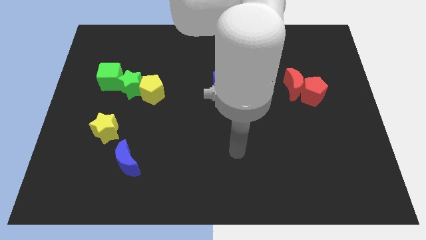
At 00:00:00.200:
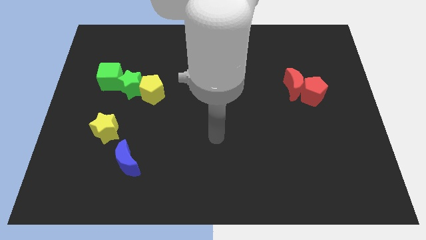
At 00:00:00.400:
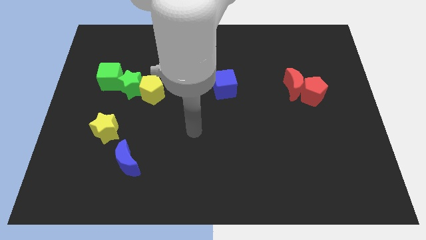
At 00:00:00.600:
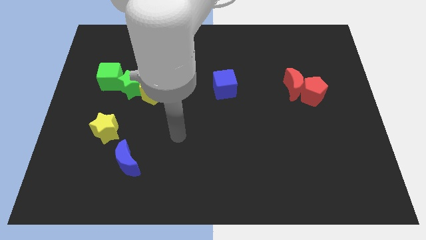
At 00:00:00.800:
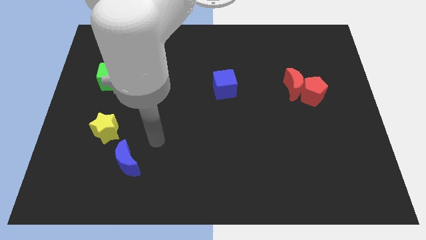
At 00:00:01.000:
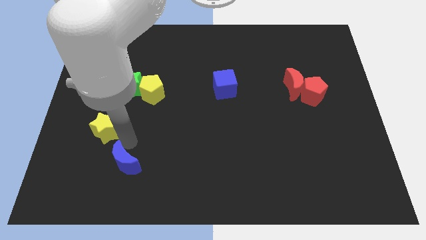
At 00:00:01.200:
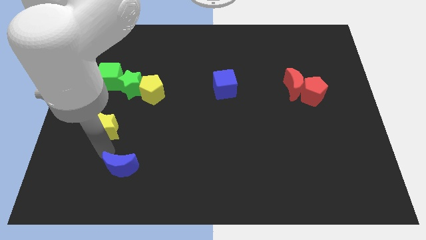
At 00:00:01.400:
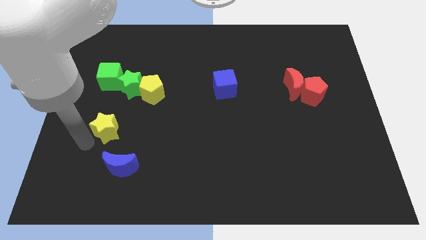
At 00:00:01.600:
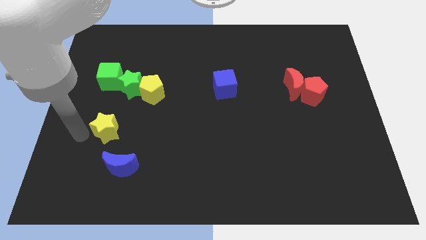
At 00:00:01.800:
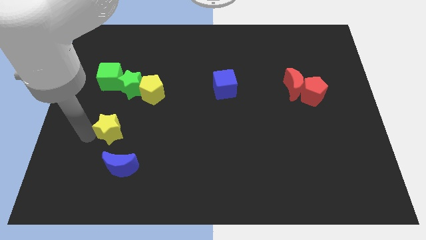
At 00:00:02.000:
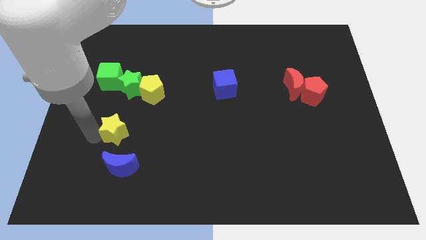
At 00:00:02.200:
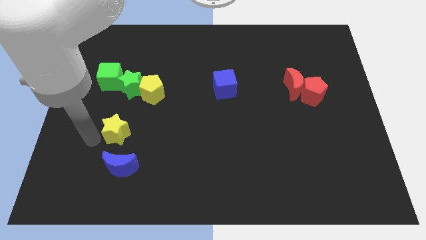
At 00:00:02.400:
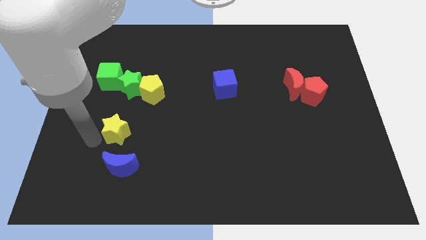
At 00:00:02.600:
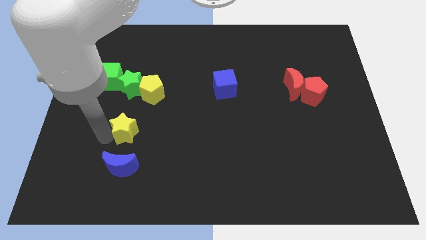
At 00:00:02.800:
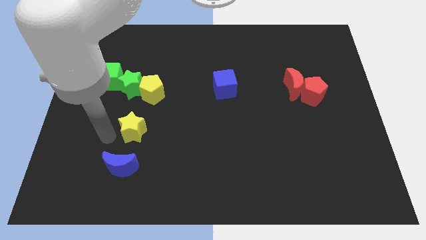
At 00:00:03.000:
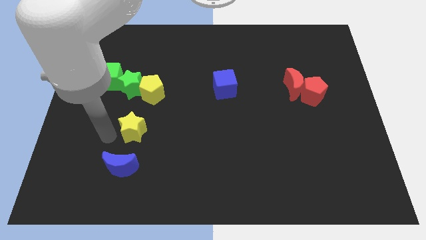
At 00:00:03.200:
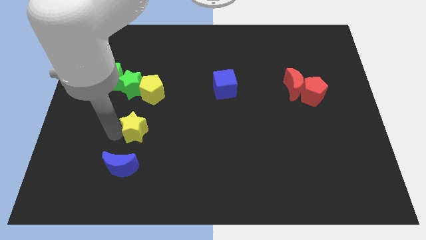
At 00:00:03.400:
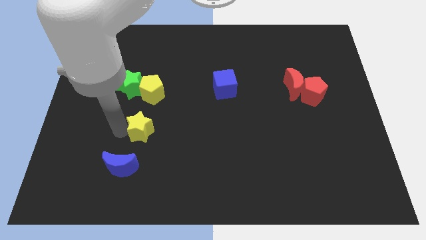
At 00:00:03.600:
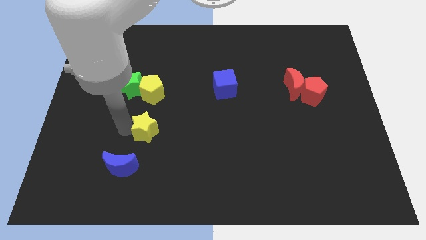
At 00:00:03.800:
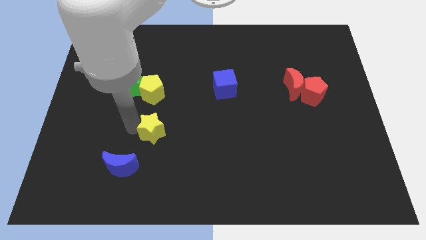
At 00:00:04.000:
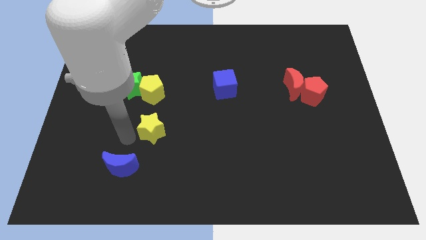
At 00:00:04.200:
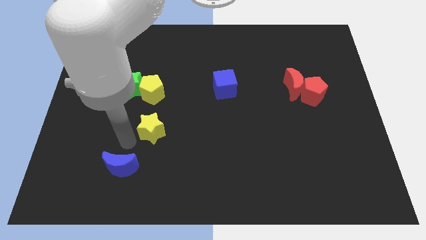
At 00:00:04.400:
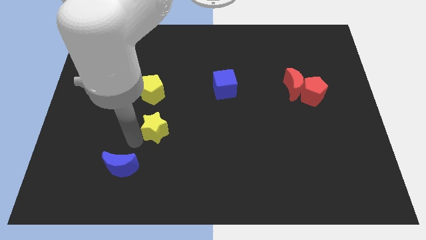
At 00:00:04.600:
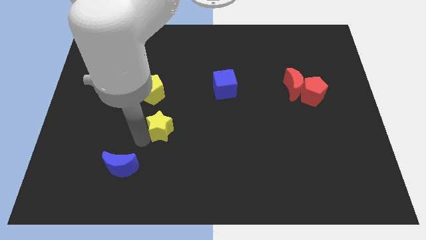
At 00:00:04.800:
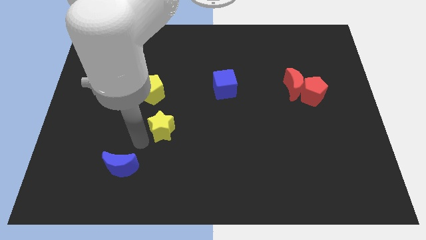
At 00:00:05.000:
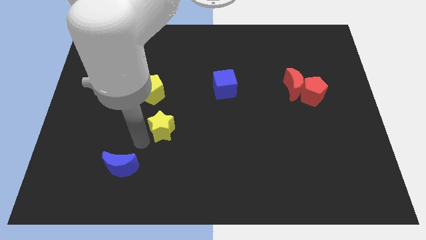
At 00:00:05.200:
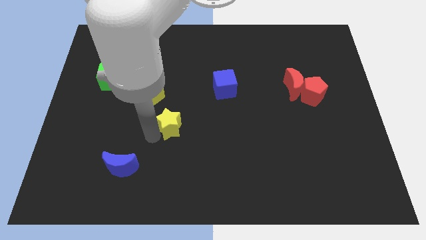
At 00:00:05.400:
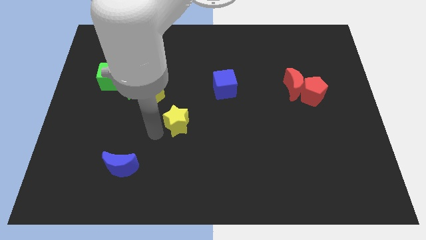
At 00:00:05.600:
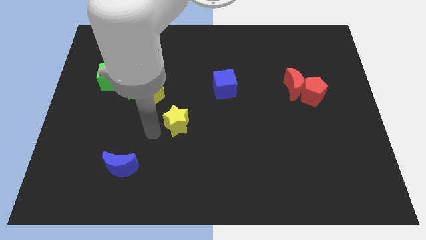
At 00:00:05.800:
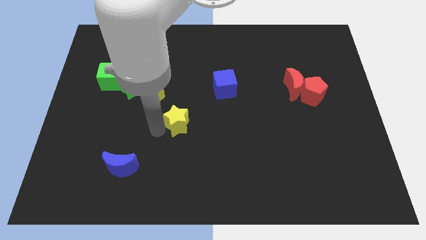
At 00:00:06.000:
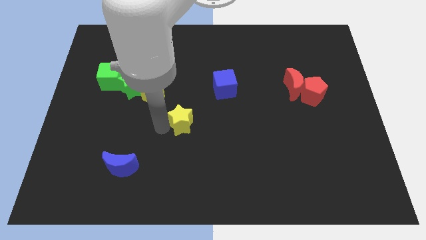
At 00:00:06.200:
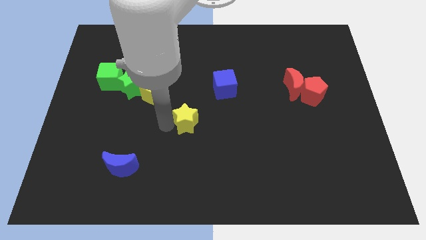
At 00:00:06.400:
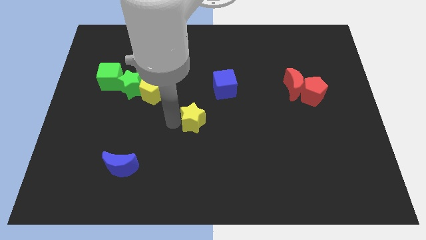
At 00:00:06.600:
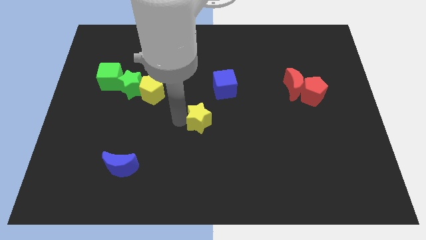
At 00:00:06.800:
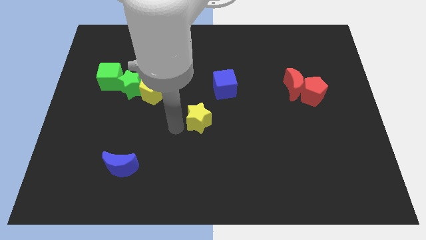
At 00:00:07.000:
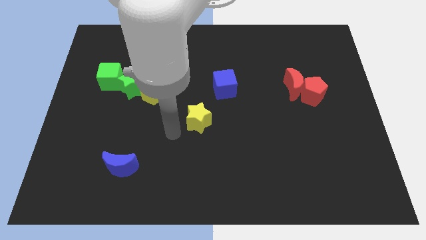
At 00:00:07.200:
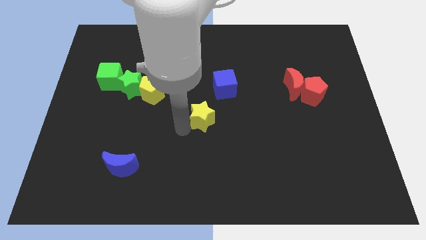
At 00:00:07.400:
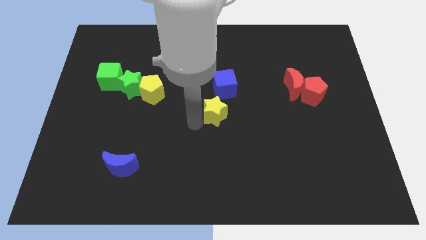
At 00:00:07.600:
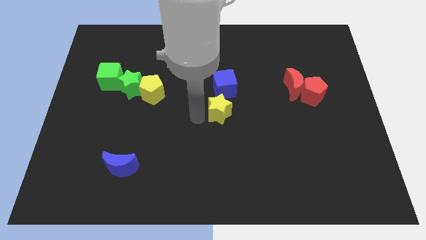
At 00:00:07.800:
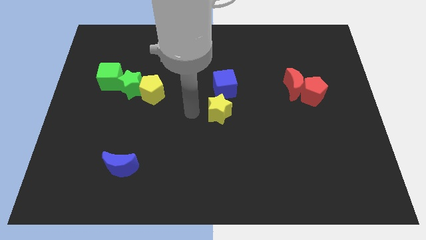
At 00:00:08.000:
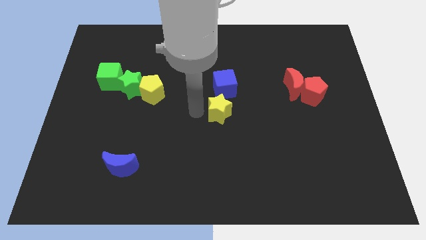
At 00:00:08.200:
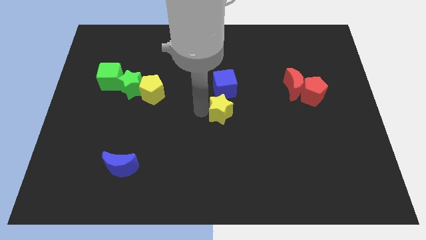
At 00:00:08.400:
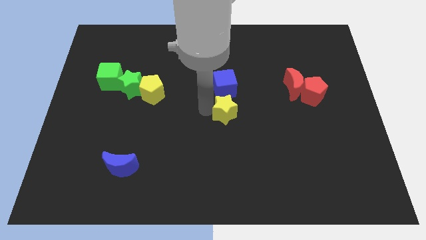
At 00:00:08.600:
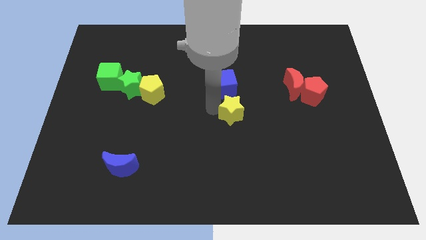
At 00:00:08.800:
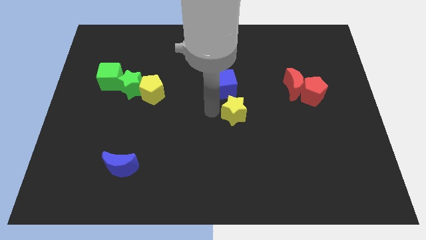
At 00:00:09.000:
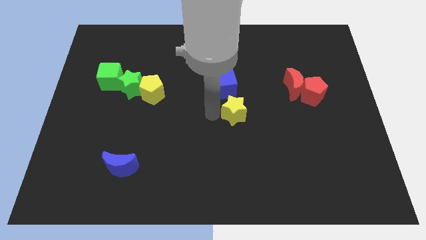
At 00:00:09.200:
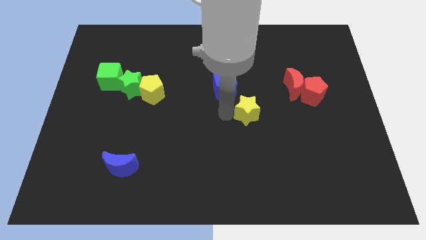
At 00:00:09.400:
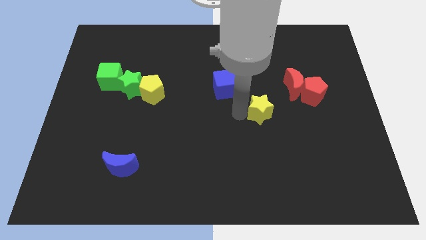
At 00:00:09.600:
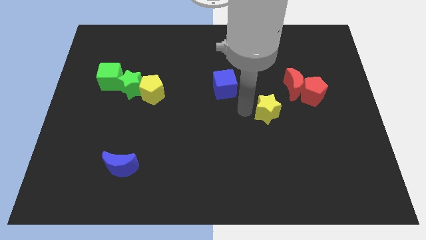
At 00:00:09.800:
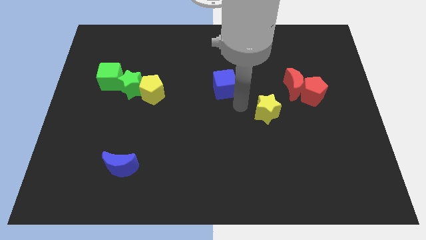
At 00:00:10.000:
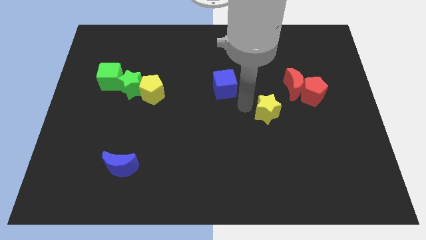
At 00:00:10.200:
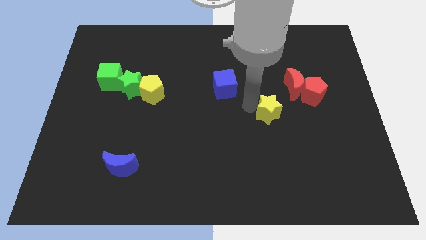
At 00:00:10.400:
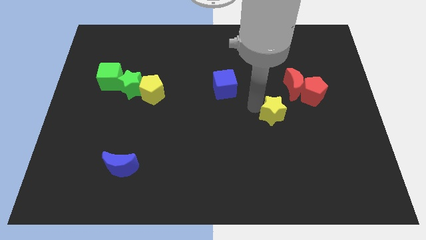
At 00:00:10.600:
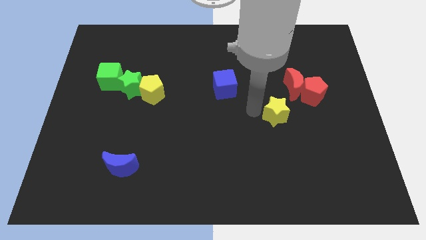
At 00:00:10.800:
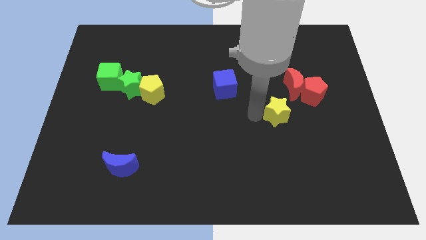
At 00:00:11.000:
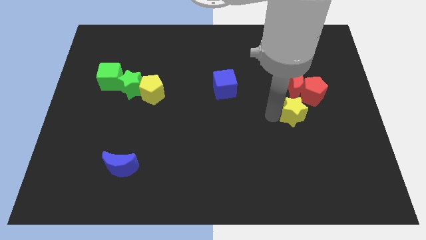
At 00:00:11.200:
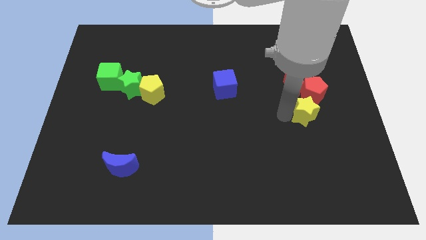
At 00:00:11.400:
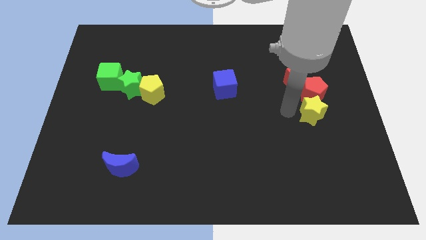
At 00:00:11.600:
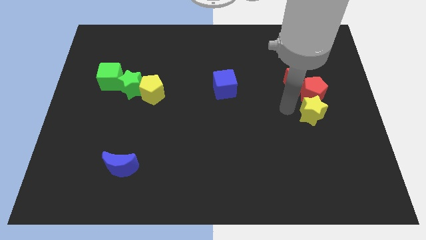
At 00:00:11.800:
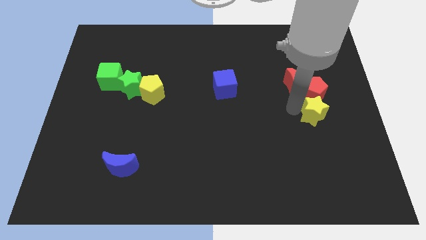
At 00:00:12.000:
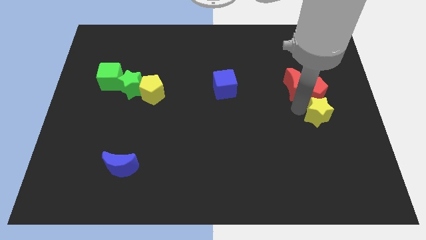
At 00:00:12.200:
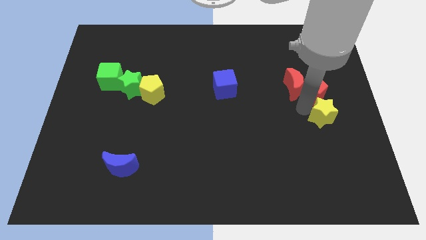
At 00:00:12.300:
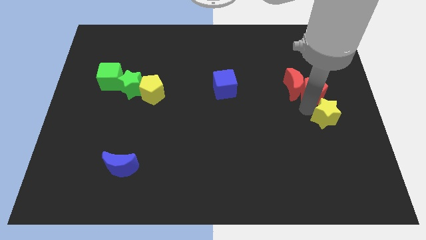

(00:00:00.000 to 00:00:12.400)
push the yellow star to the right side

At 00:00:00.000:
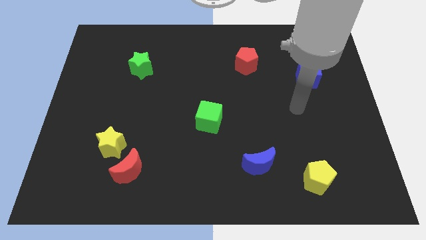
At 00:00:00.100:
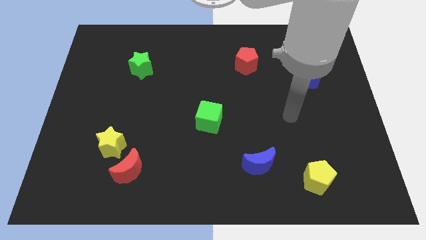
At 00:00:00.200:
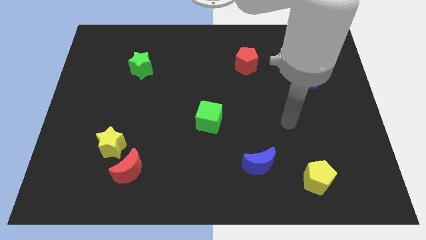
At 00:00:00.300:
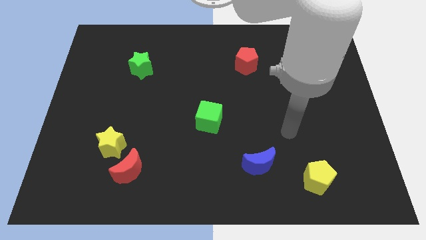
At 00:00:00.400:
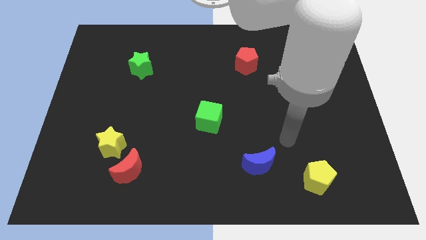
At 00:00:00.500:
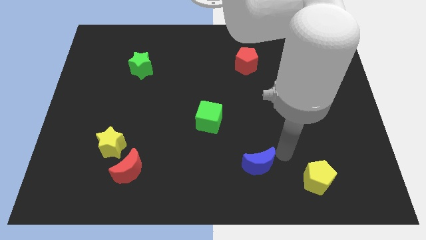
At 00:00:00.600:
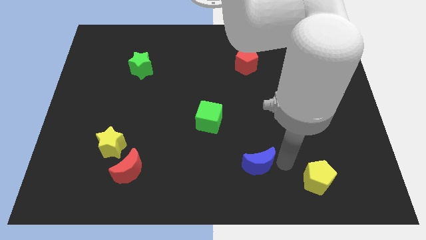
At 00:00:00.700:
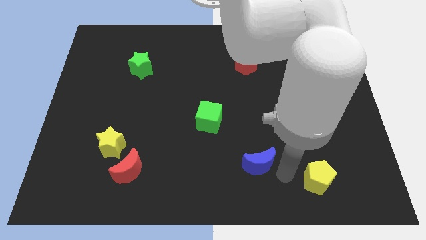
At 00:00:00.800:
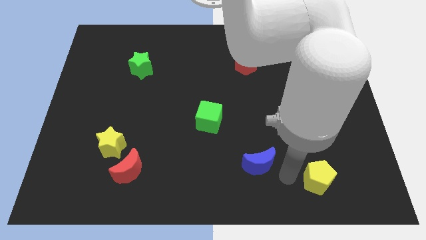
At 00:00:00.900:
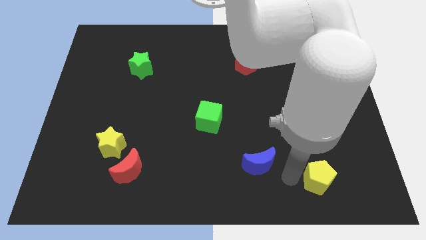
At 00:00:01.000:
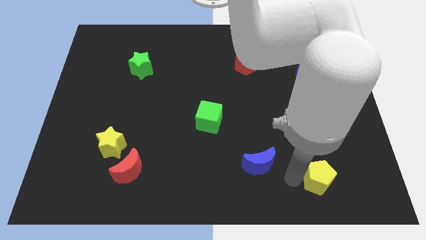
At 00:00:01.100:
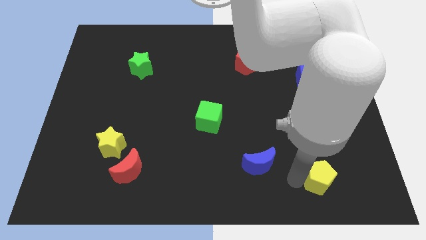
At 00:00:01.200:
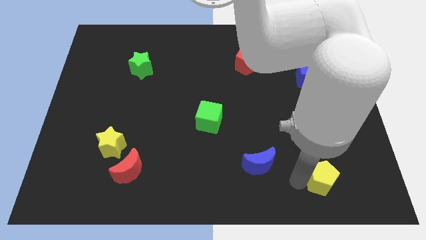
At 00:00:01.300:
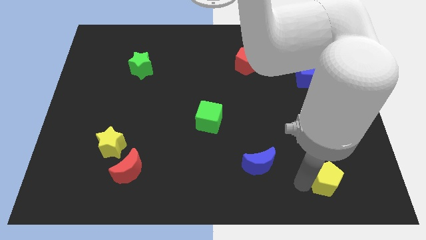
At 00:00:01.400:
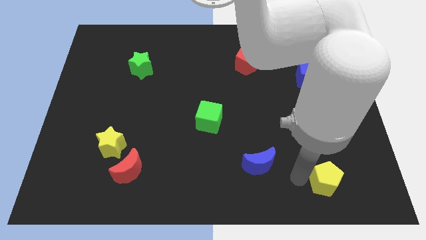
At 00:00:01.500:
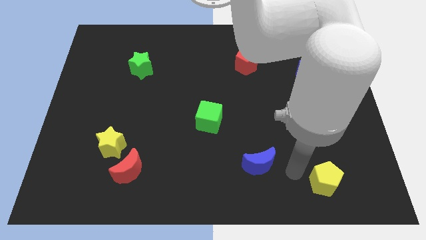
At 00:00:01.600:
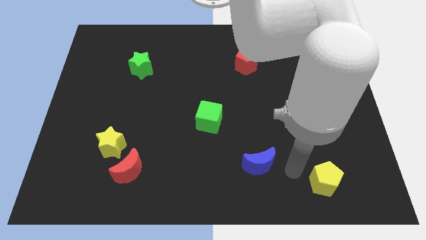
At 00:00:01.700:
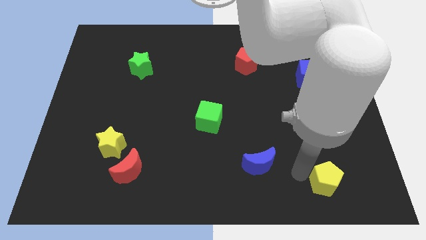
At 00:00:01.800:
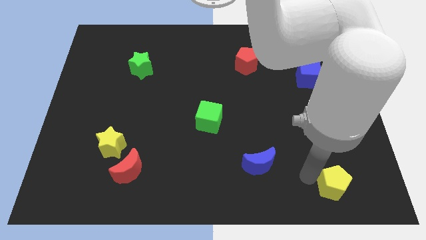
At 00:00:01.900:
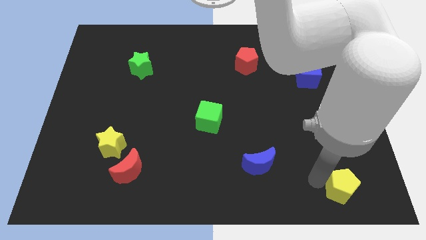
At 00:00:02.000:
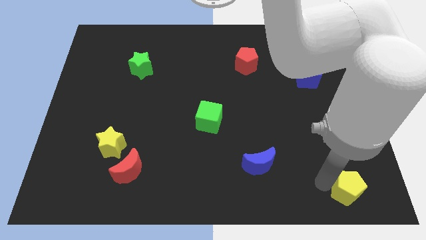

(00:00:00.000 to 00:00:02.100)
push the yellow pentagon to the lower right corner
